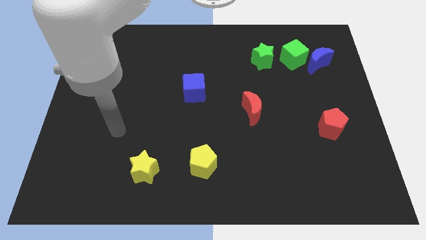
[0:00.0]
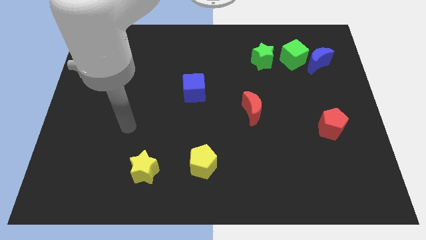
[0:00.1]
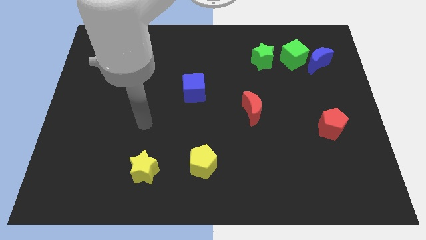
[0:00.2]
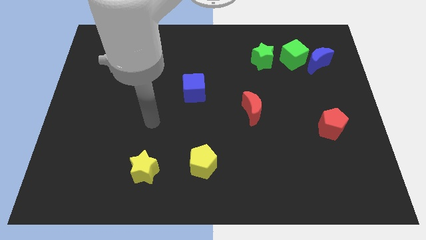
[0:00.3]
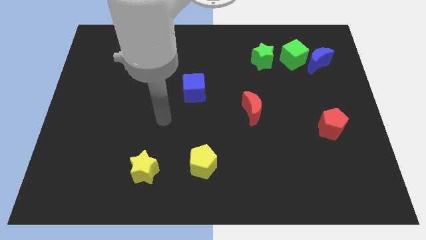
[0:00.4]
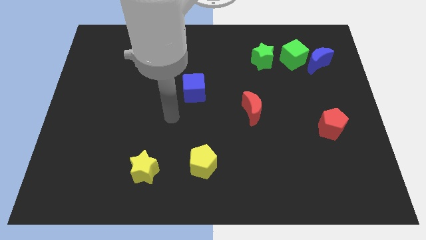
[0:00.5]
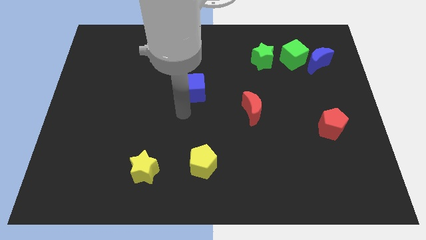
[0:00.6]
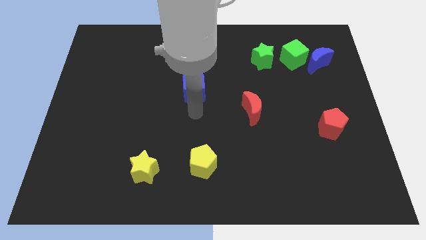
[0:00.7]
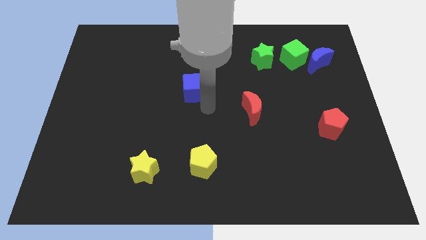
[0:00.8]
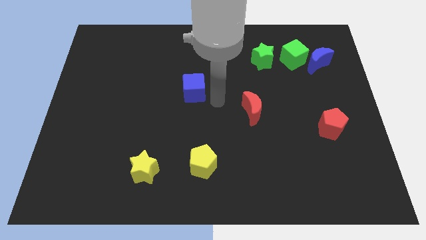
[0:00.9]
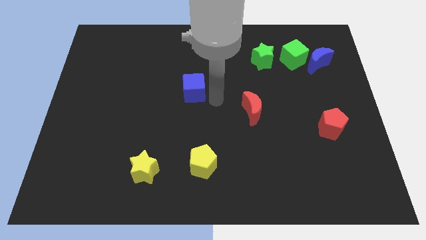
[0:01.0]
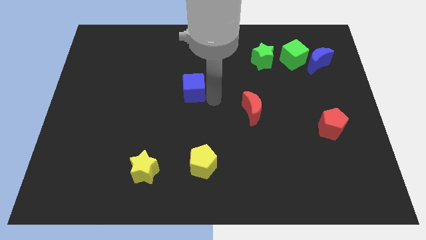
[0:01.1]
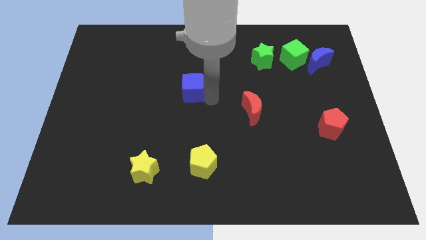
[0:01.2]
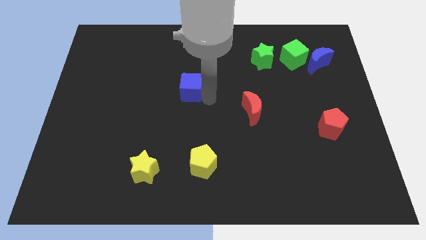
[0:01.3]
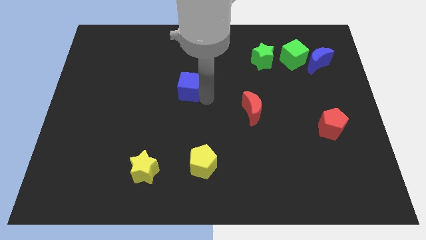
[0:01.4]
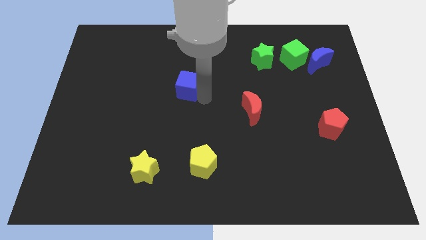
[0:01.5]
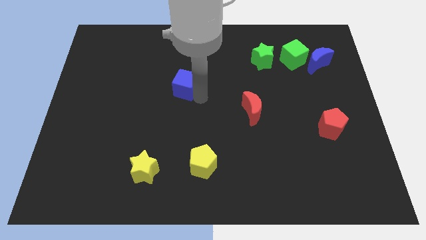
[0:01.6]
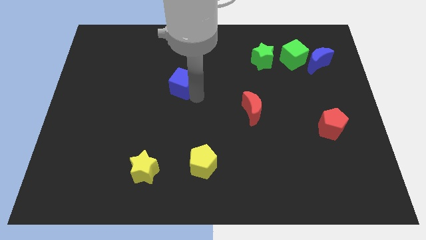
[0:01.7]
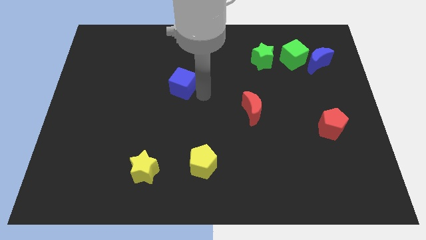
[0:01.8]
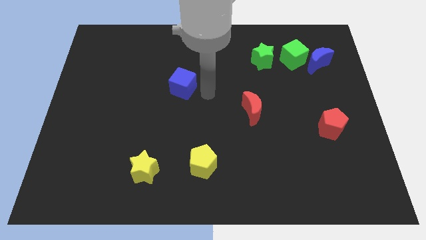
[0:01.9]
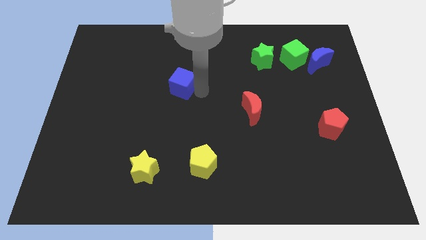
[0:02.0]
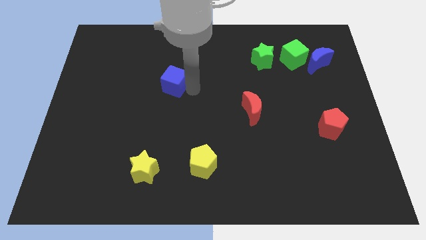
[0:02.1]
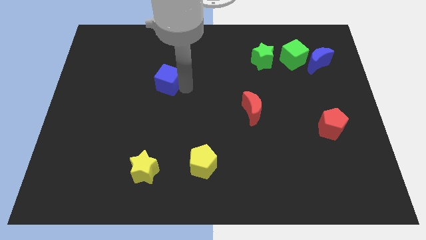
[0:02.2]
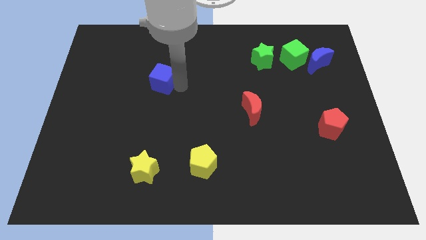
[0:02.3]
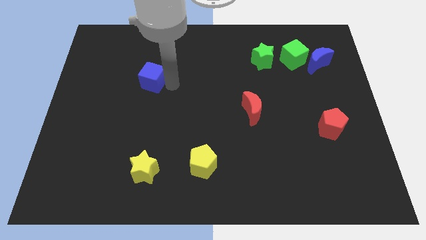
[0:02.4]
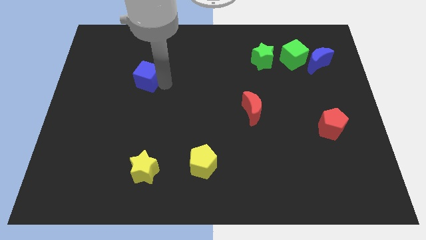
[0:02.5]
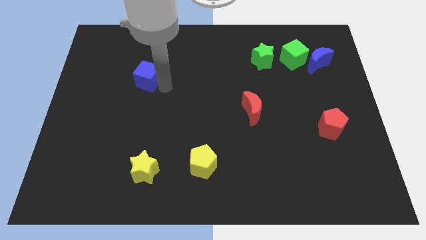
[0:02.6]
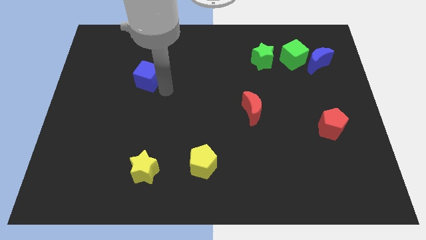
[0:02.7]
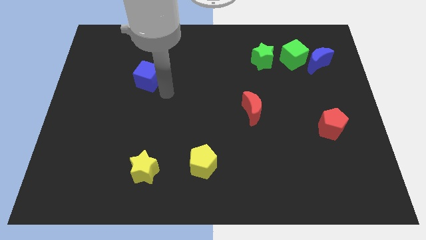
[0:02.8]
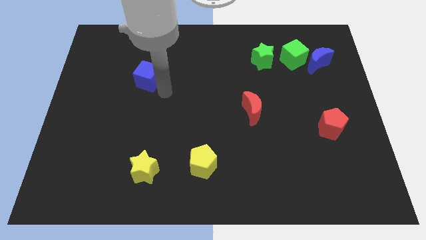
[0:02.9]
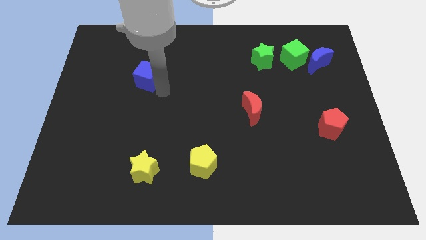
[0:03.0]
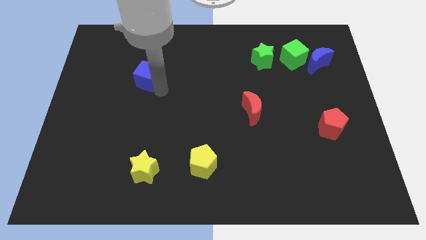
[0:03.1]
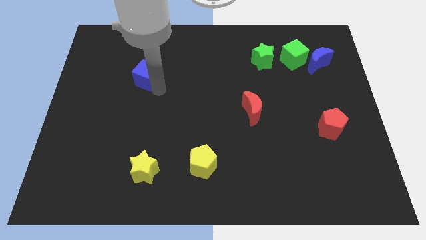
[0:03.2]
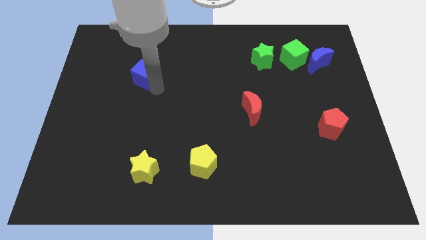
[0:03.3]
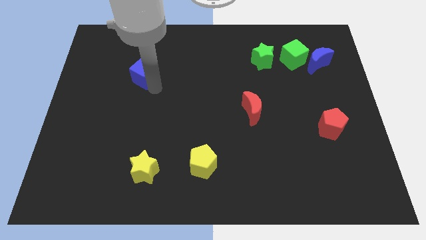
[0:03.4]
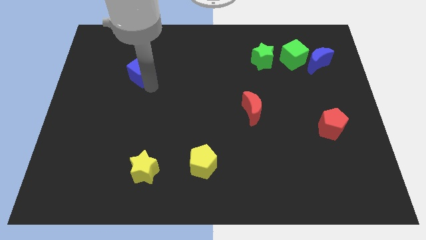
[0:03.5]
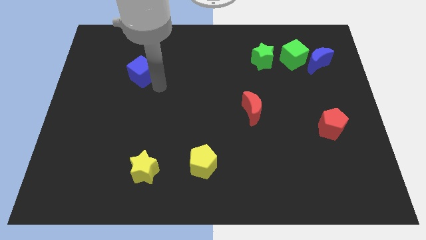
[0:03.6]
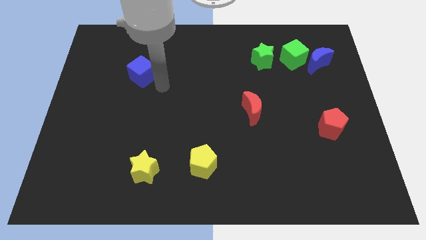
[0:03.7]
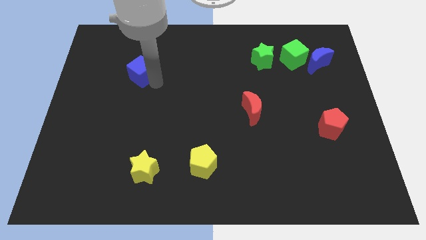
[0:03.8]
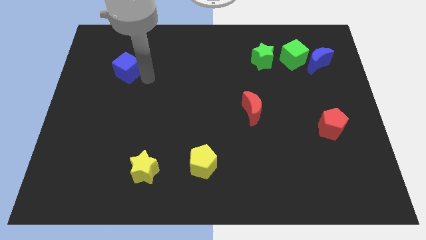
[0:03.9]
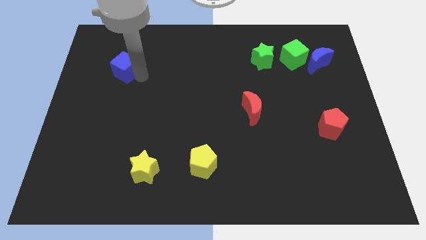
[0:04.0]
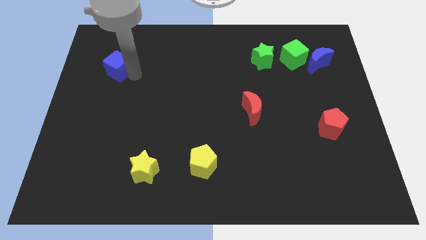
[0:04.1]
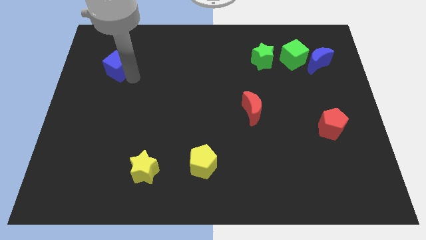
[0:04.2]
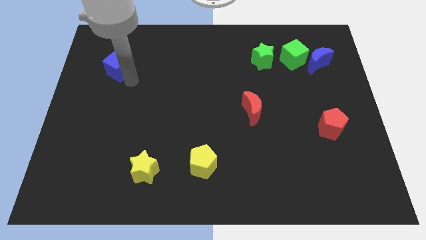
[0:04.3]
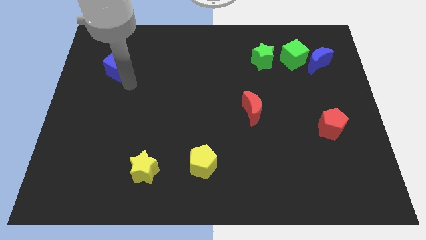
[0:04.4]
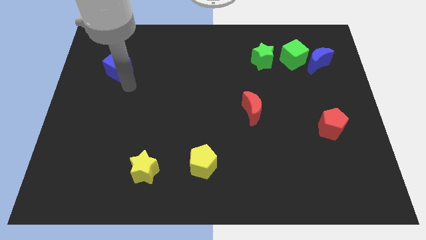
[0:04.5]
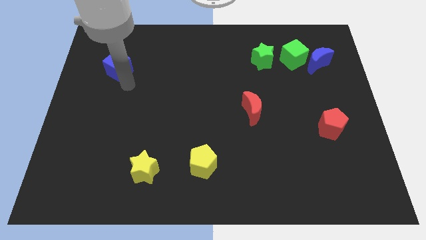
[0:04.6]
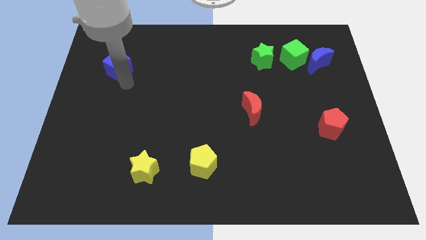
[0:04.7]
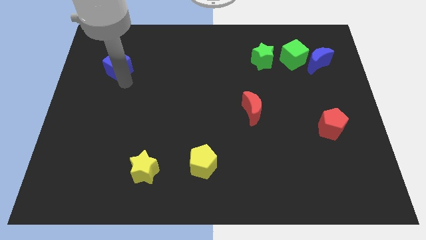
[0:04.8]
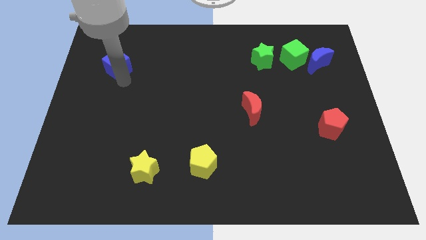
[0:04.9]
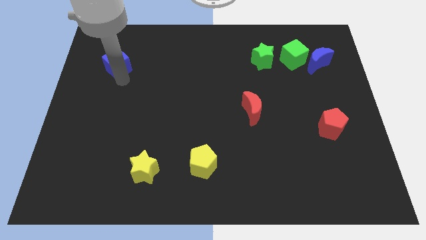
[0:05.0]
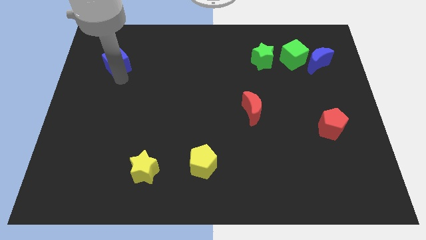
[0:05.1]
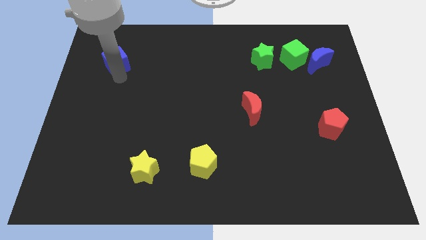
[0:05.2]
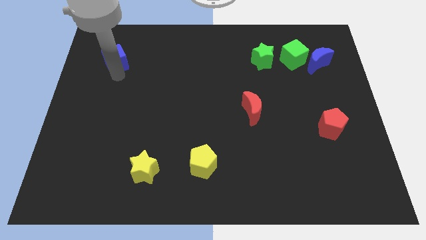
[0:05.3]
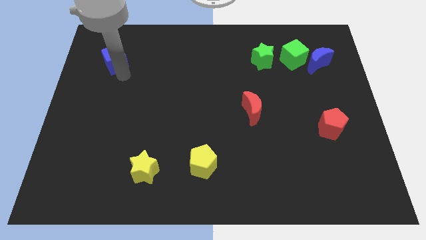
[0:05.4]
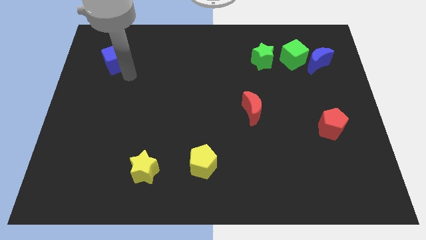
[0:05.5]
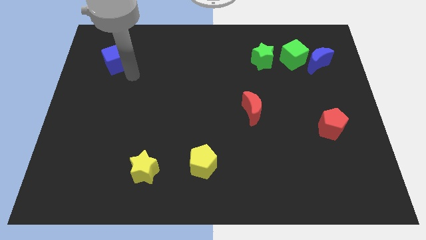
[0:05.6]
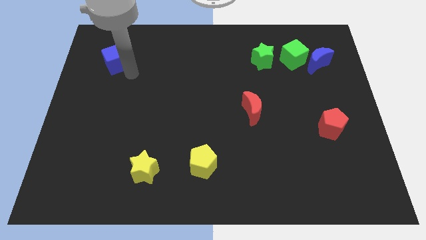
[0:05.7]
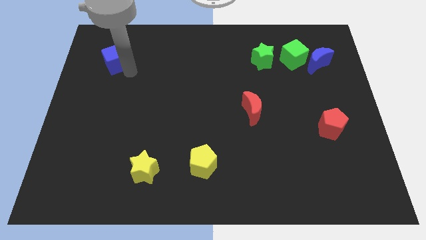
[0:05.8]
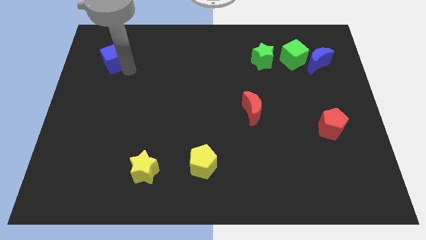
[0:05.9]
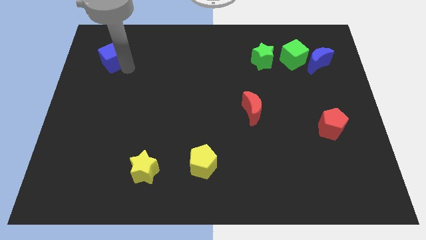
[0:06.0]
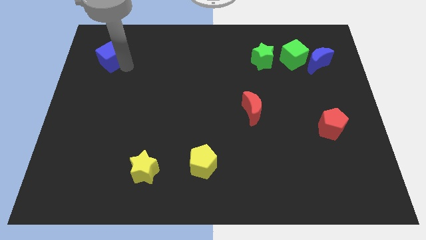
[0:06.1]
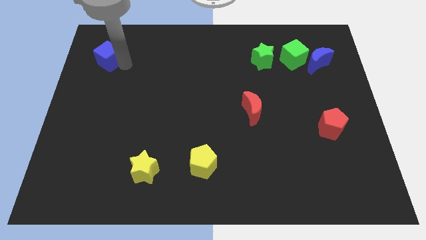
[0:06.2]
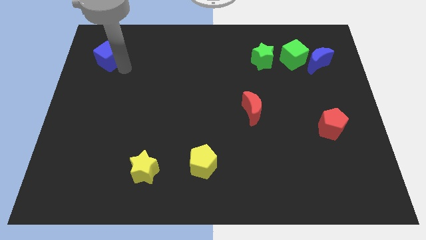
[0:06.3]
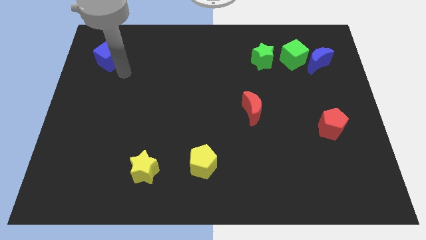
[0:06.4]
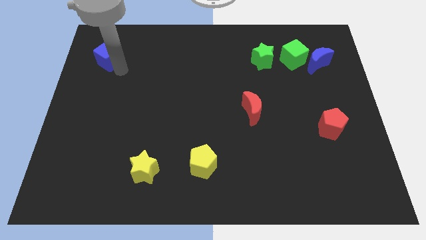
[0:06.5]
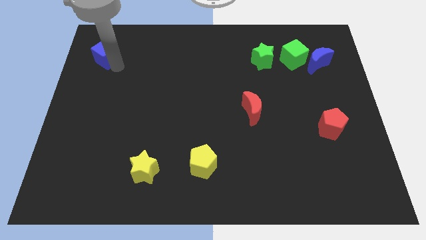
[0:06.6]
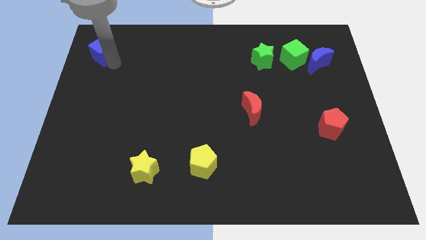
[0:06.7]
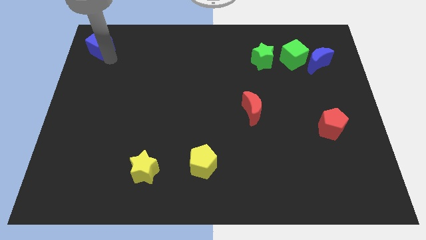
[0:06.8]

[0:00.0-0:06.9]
push the blue cube to the top left
